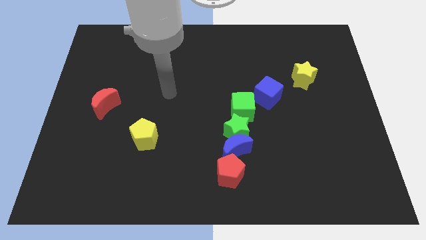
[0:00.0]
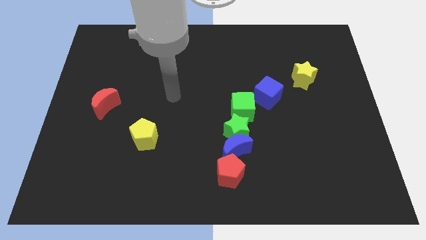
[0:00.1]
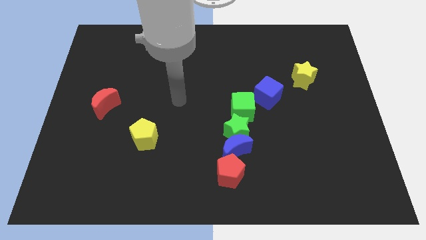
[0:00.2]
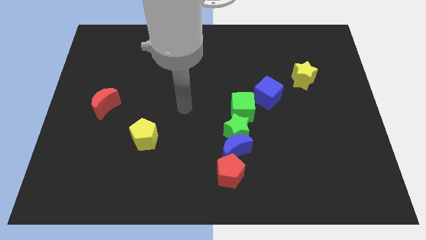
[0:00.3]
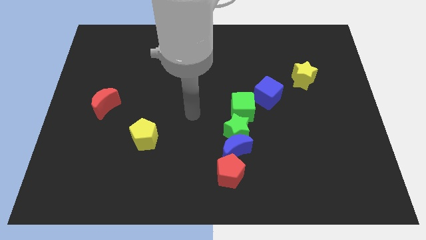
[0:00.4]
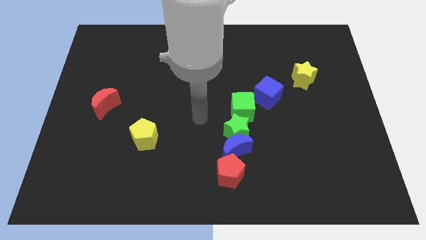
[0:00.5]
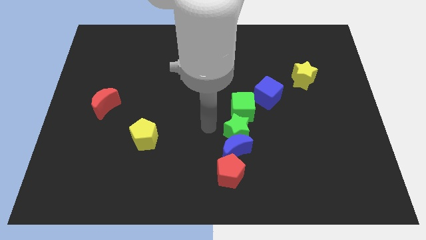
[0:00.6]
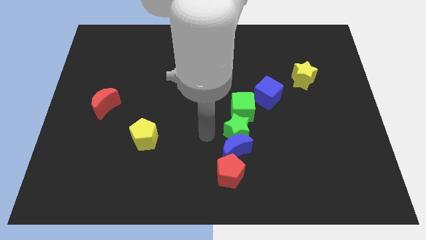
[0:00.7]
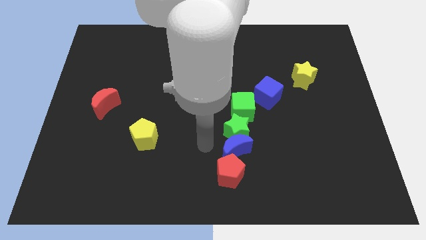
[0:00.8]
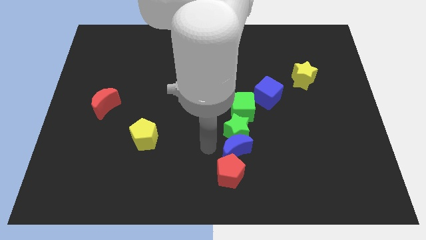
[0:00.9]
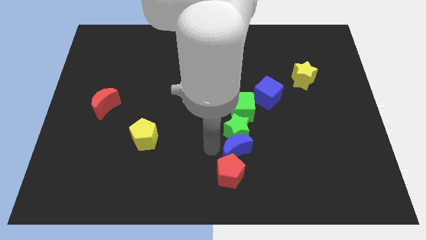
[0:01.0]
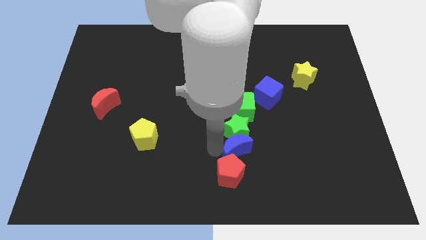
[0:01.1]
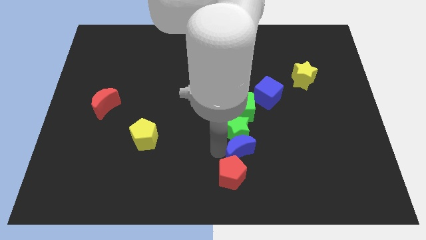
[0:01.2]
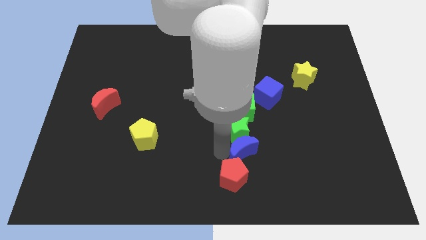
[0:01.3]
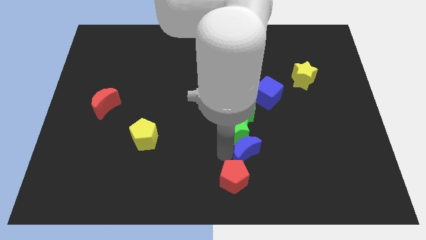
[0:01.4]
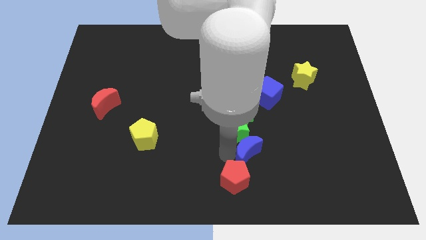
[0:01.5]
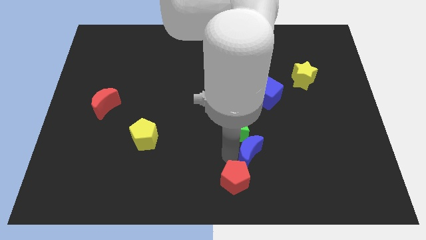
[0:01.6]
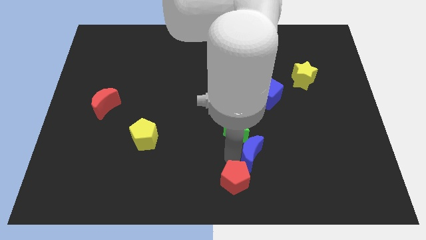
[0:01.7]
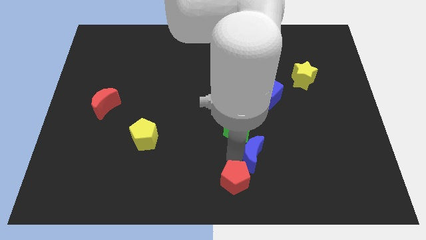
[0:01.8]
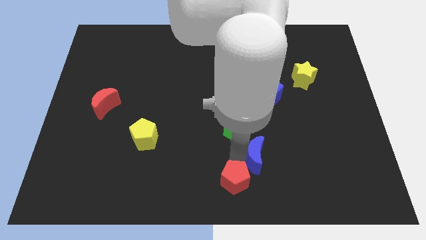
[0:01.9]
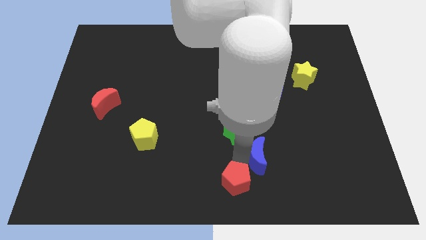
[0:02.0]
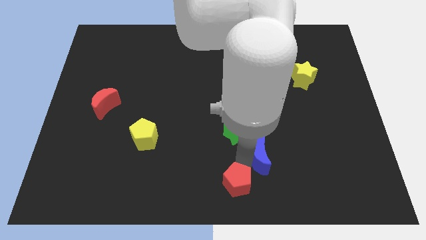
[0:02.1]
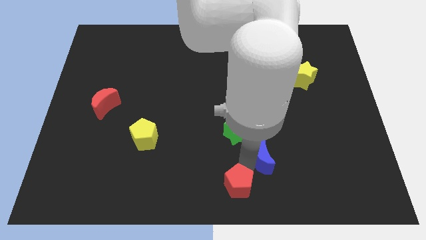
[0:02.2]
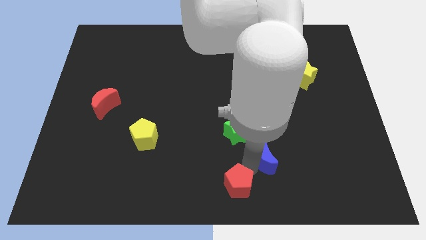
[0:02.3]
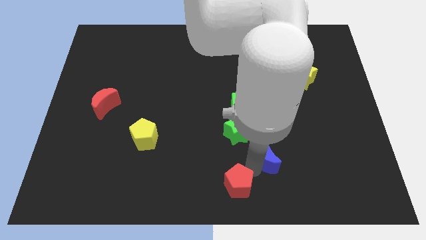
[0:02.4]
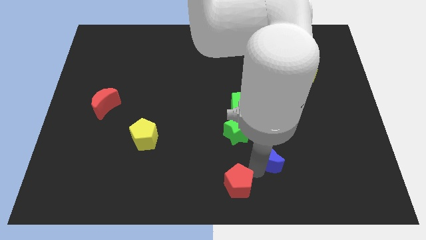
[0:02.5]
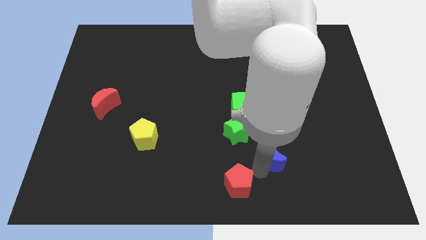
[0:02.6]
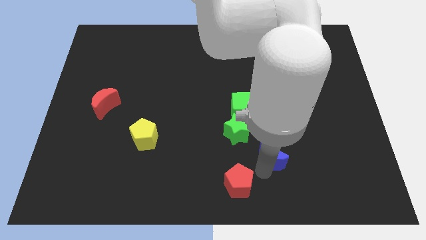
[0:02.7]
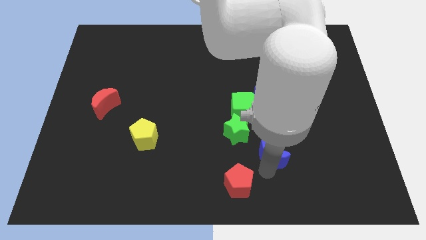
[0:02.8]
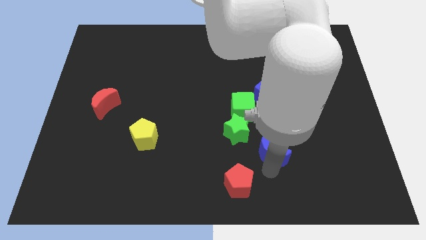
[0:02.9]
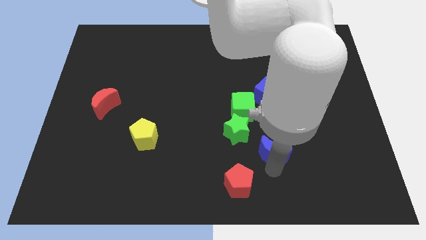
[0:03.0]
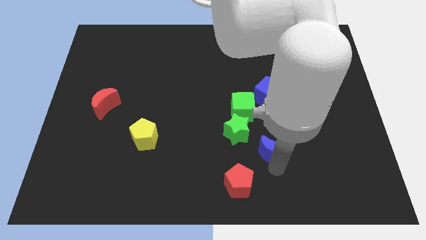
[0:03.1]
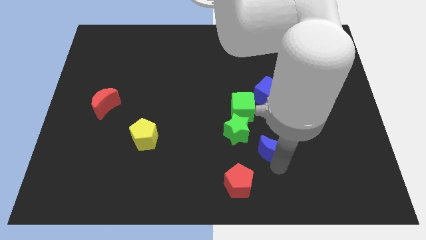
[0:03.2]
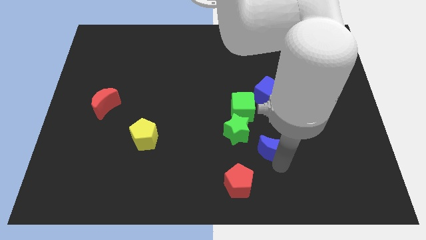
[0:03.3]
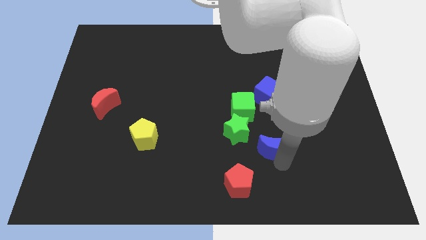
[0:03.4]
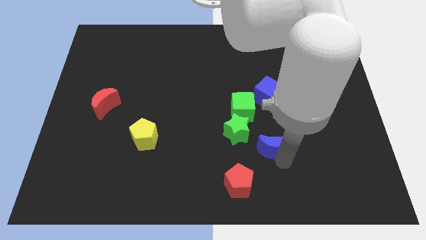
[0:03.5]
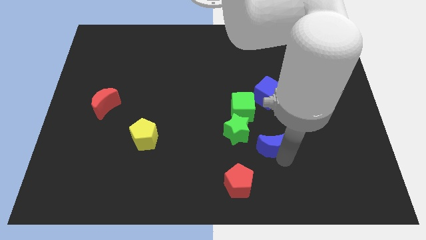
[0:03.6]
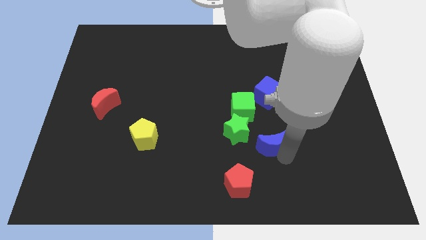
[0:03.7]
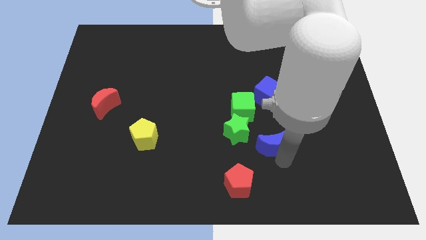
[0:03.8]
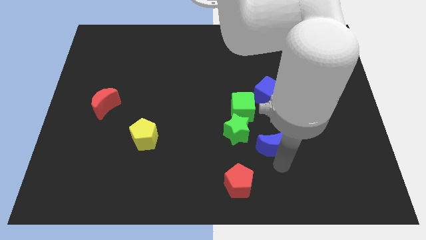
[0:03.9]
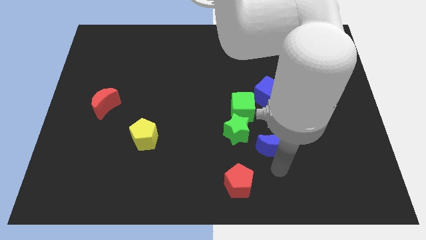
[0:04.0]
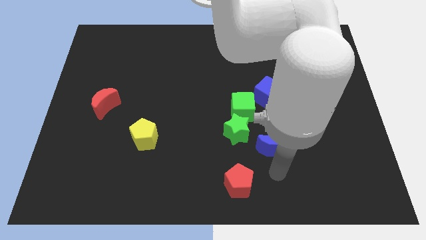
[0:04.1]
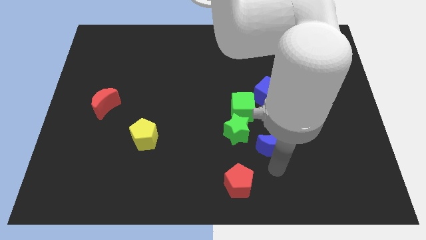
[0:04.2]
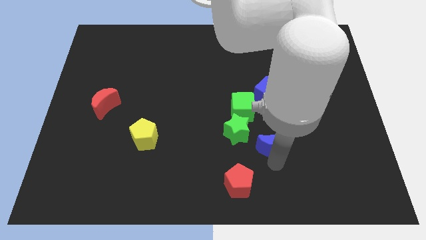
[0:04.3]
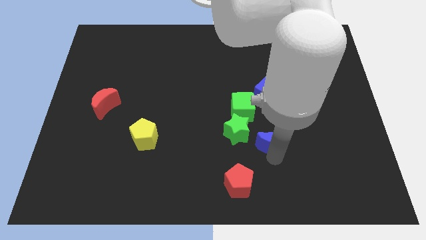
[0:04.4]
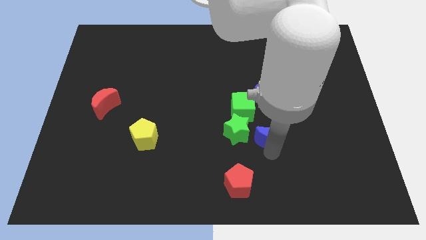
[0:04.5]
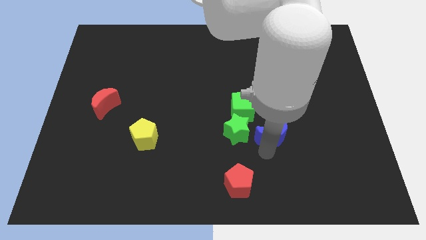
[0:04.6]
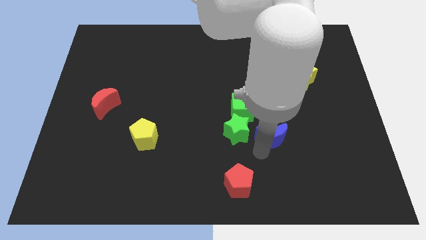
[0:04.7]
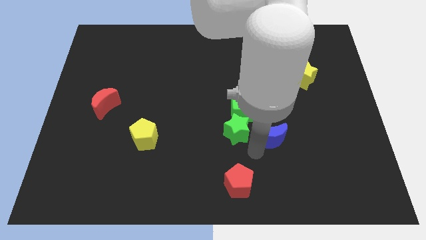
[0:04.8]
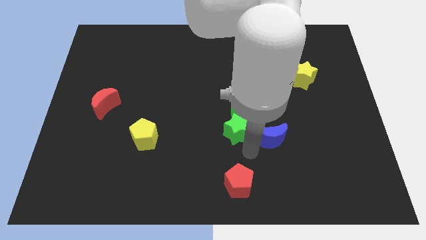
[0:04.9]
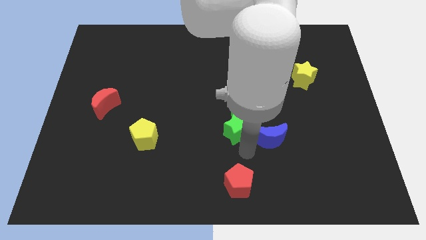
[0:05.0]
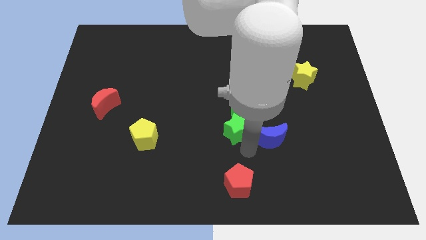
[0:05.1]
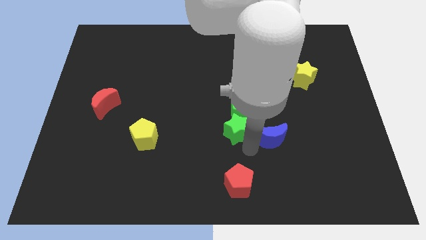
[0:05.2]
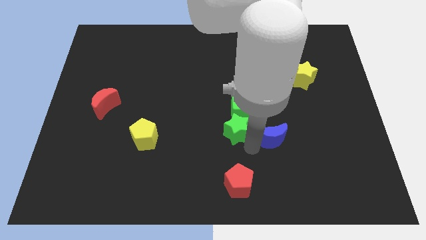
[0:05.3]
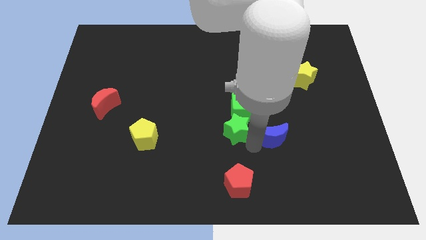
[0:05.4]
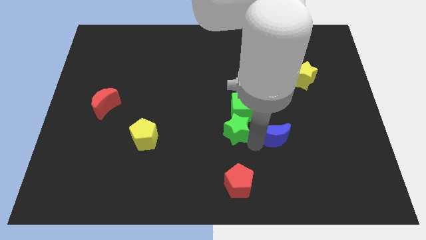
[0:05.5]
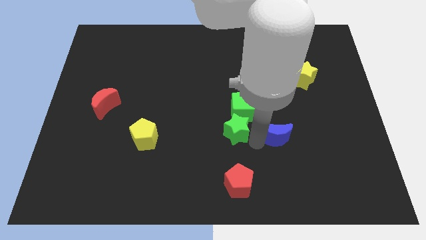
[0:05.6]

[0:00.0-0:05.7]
move the blue moon away from the green star and red pentagon

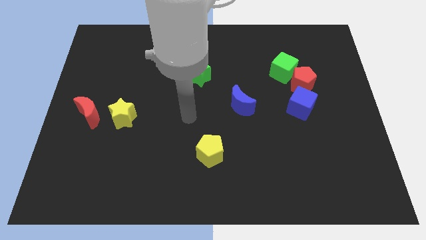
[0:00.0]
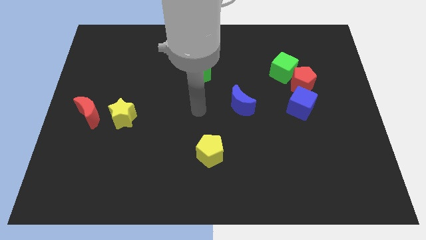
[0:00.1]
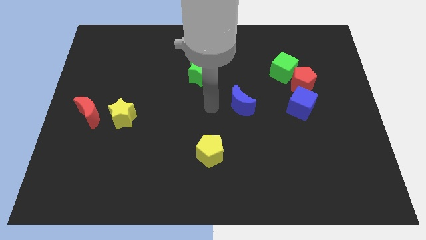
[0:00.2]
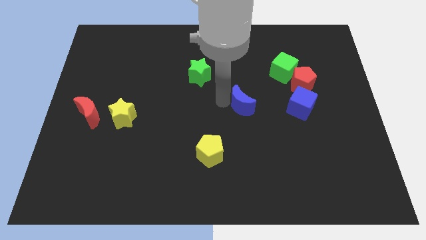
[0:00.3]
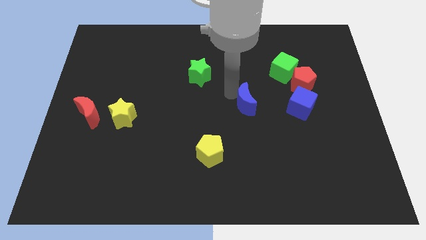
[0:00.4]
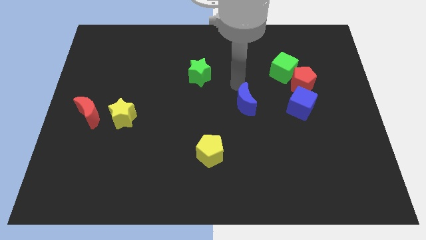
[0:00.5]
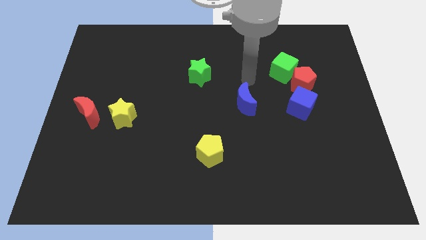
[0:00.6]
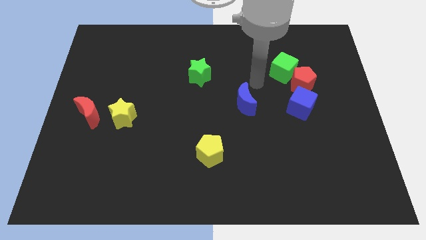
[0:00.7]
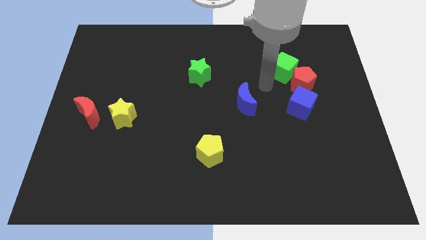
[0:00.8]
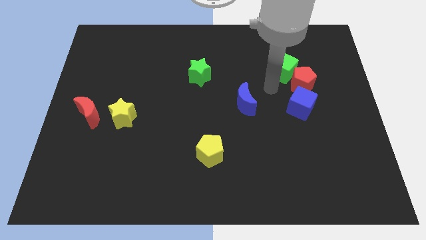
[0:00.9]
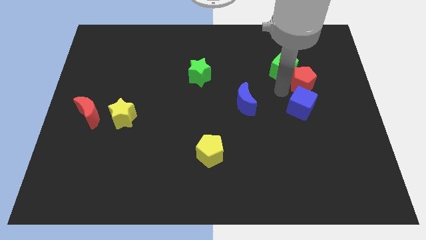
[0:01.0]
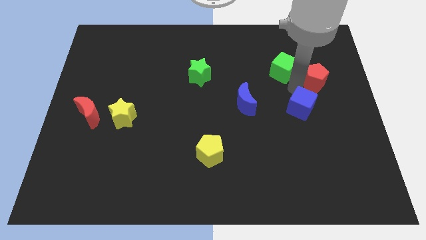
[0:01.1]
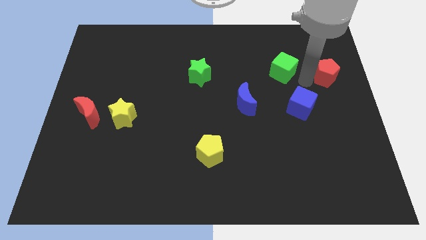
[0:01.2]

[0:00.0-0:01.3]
move the green cube away from the red pentagon

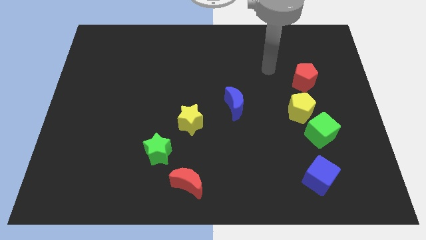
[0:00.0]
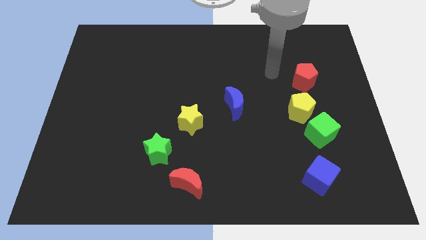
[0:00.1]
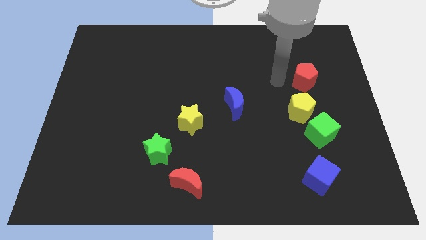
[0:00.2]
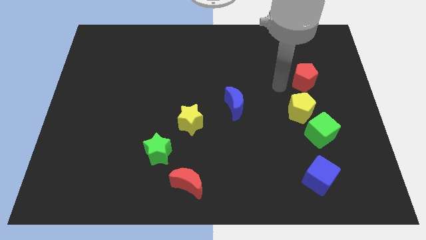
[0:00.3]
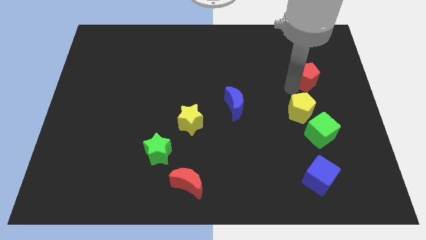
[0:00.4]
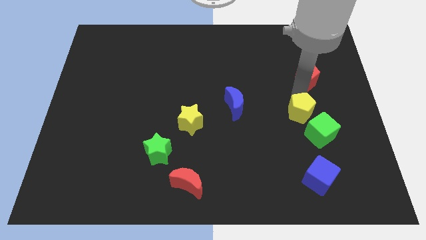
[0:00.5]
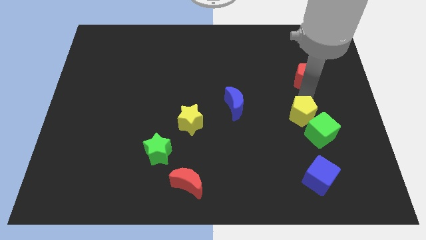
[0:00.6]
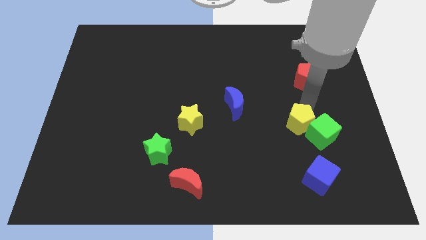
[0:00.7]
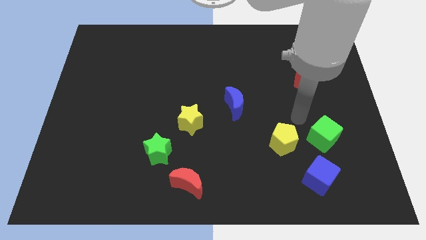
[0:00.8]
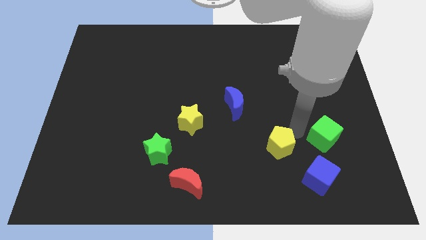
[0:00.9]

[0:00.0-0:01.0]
pull the green cube apart from the yellow pentagon

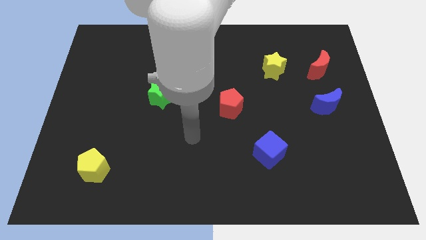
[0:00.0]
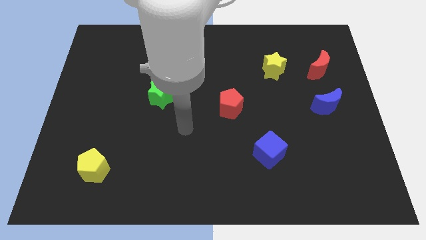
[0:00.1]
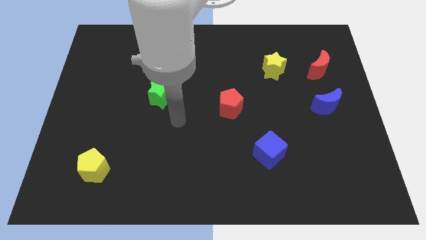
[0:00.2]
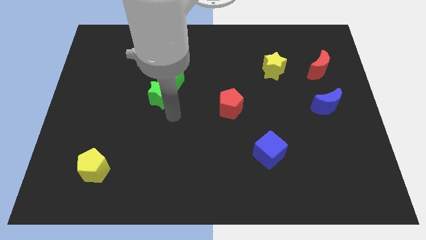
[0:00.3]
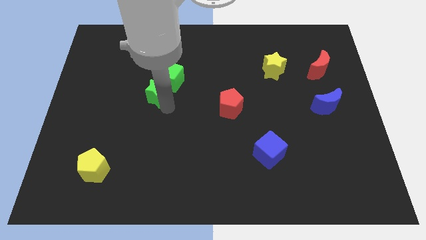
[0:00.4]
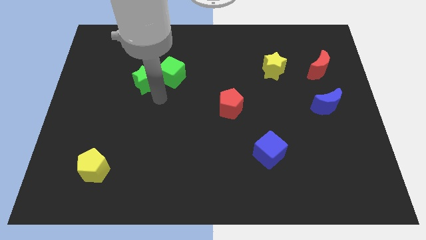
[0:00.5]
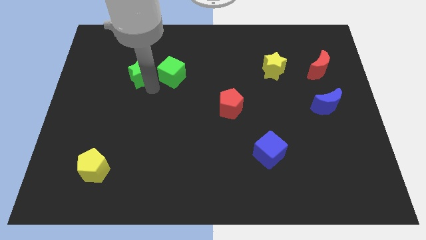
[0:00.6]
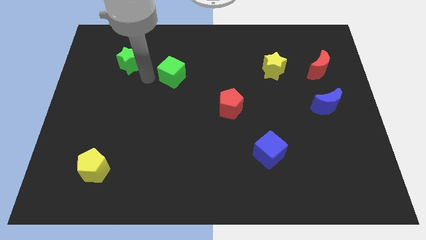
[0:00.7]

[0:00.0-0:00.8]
pull the green cube apart from the green star

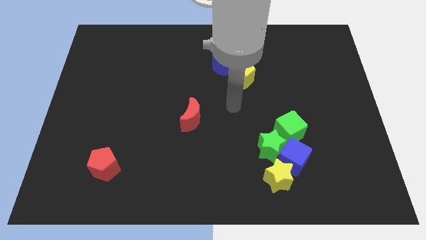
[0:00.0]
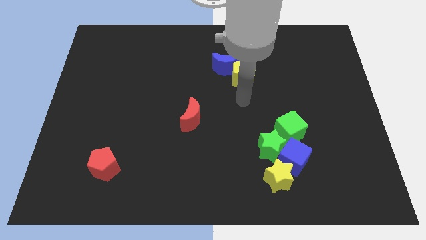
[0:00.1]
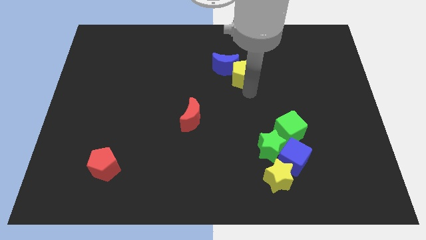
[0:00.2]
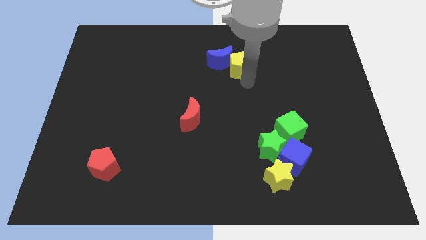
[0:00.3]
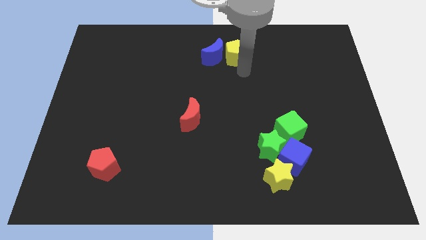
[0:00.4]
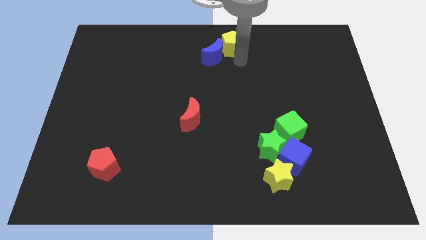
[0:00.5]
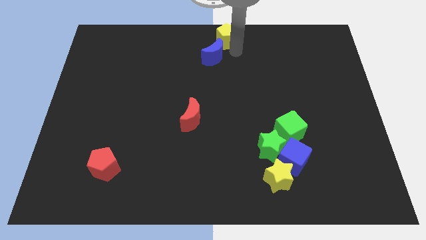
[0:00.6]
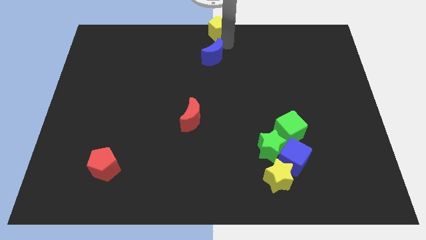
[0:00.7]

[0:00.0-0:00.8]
move the blue moon away from the yellow pentagon
